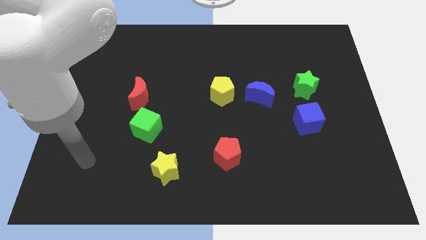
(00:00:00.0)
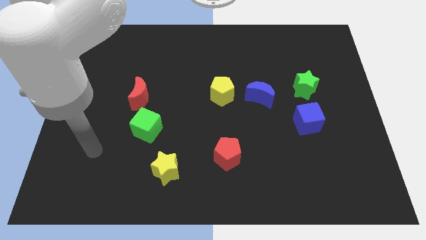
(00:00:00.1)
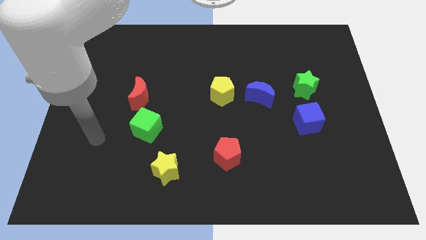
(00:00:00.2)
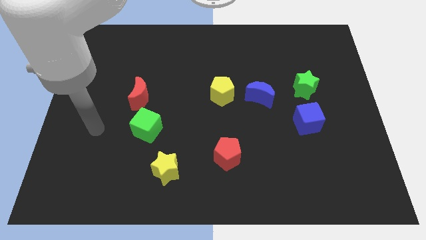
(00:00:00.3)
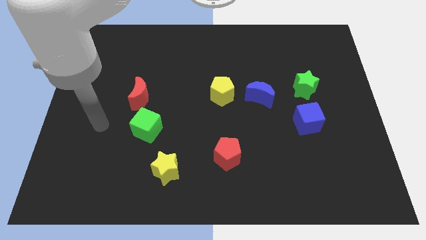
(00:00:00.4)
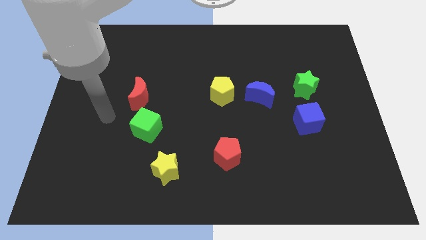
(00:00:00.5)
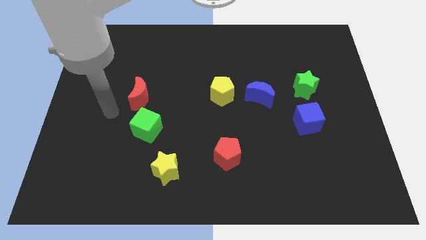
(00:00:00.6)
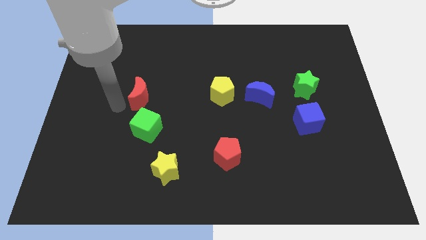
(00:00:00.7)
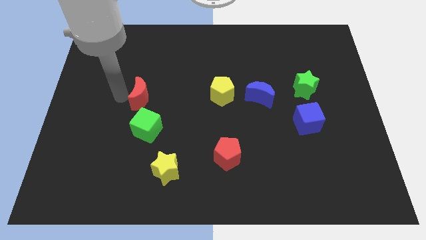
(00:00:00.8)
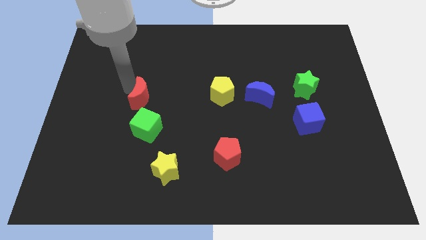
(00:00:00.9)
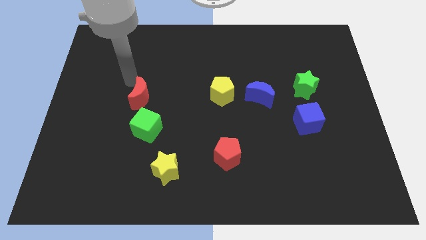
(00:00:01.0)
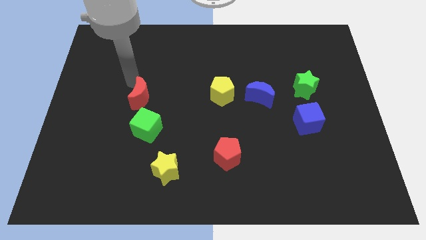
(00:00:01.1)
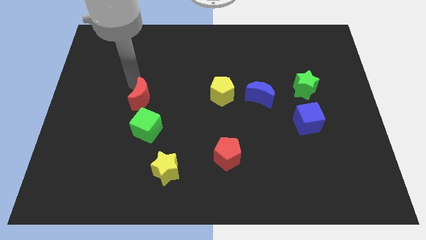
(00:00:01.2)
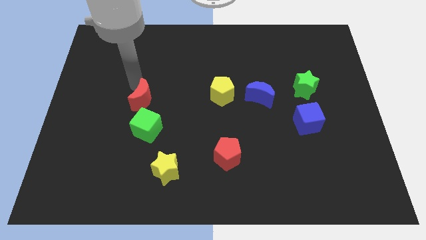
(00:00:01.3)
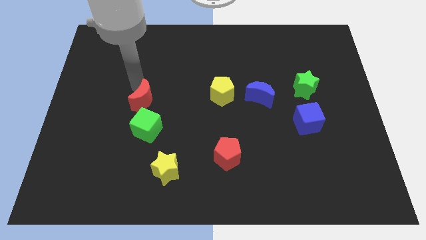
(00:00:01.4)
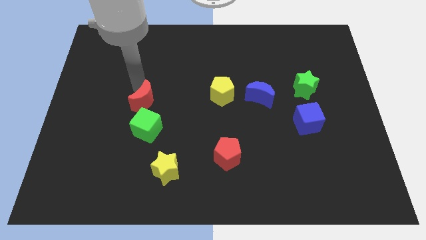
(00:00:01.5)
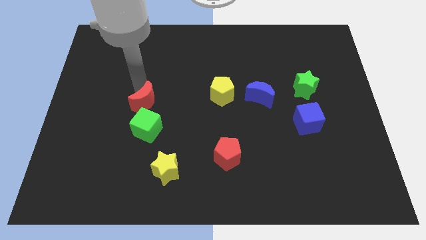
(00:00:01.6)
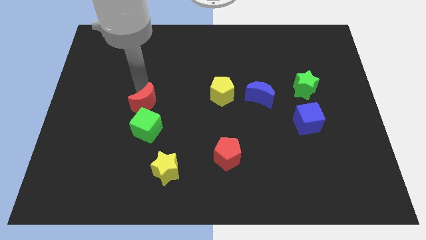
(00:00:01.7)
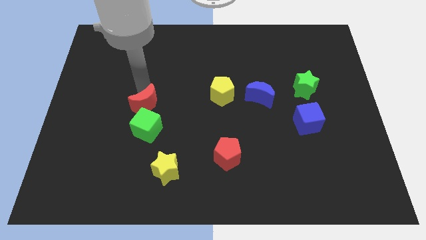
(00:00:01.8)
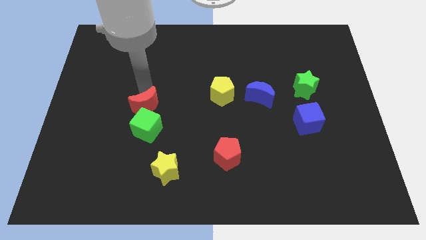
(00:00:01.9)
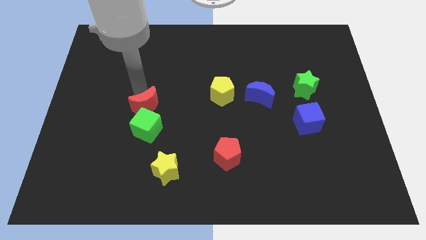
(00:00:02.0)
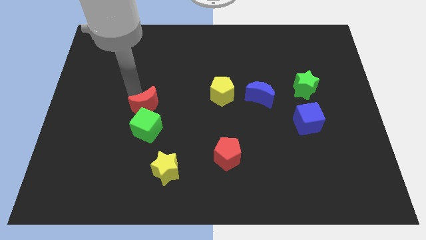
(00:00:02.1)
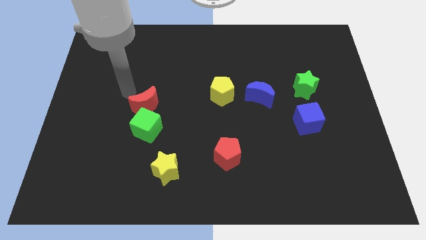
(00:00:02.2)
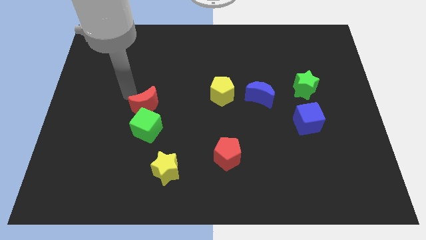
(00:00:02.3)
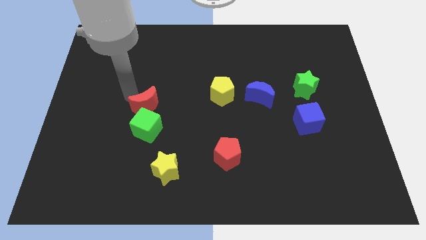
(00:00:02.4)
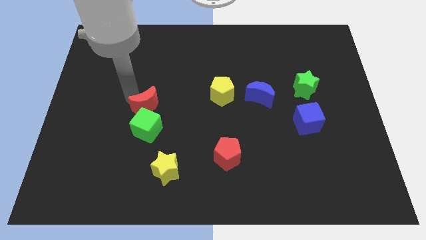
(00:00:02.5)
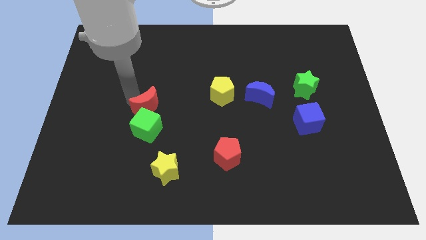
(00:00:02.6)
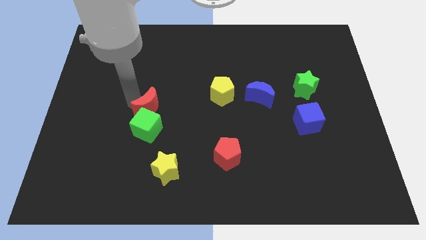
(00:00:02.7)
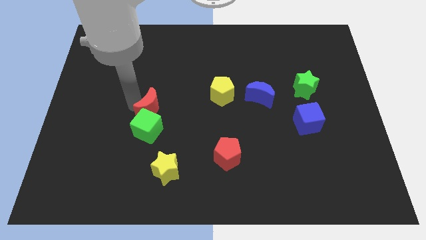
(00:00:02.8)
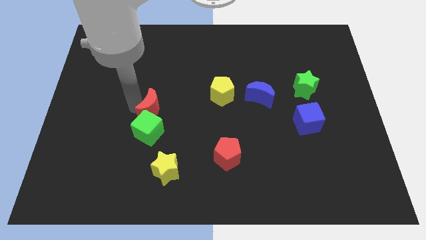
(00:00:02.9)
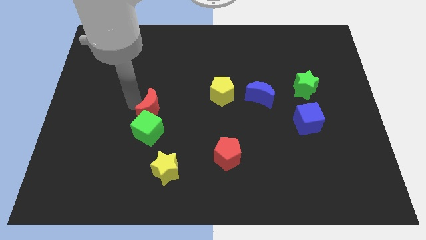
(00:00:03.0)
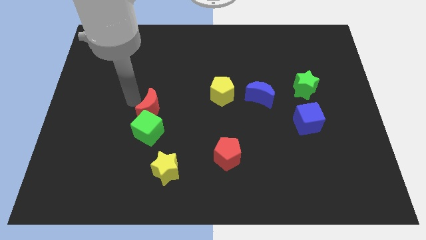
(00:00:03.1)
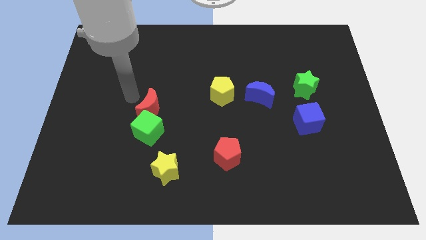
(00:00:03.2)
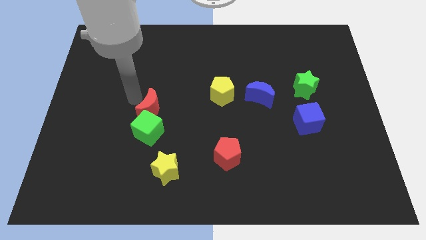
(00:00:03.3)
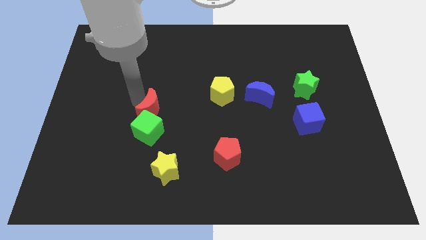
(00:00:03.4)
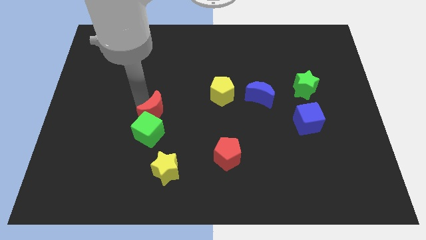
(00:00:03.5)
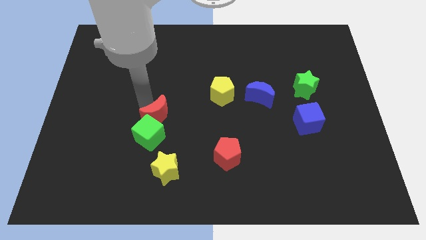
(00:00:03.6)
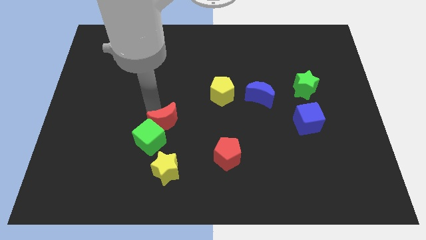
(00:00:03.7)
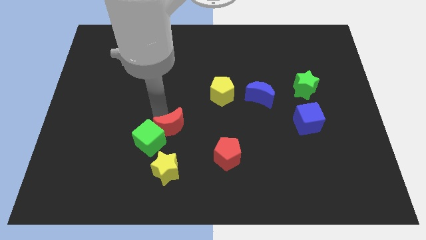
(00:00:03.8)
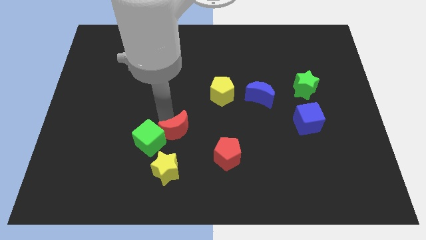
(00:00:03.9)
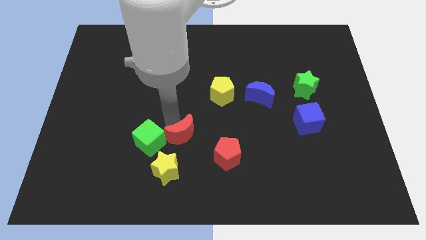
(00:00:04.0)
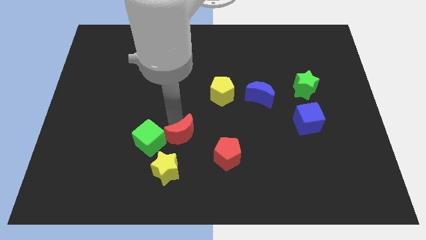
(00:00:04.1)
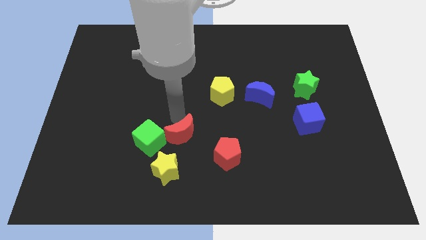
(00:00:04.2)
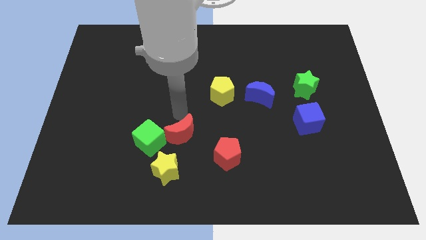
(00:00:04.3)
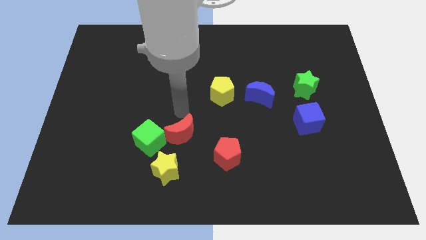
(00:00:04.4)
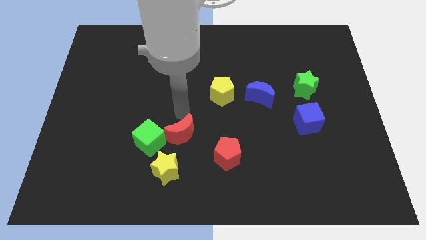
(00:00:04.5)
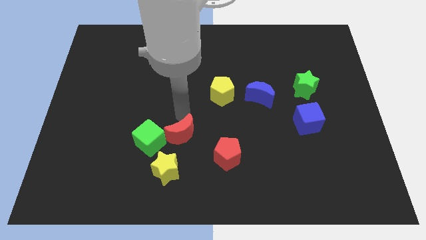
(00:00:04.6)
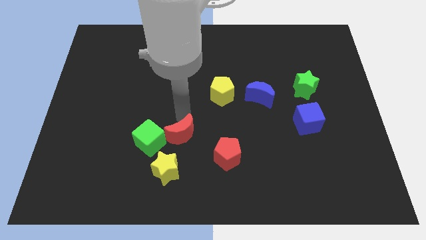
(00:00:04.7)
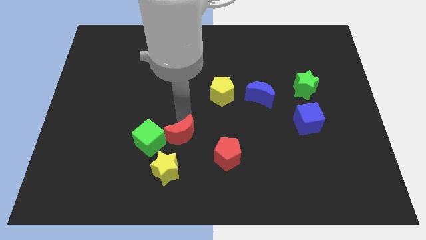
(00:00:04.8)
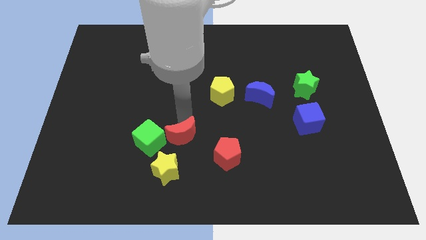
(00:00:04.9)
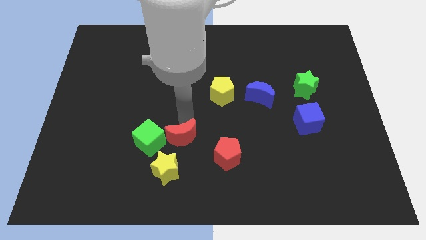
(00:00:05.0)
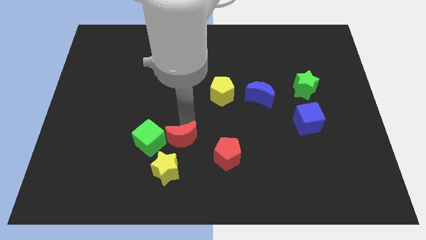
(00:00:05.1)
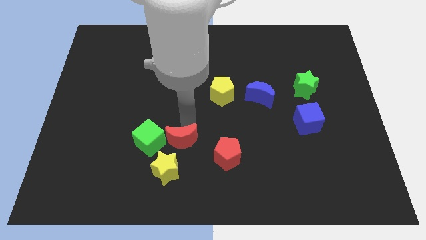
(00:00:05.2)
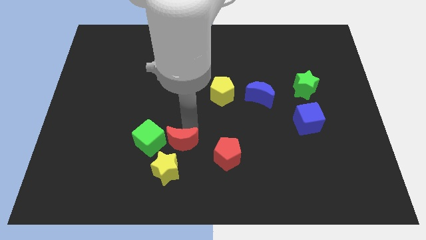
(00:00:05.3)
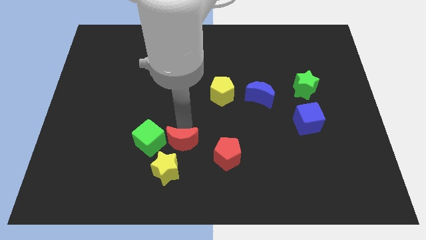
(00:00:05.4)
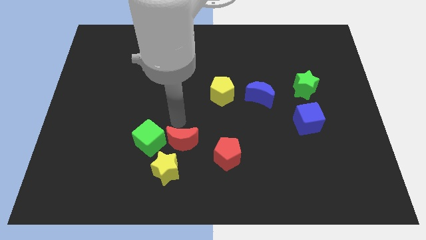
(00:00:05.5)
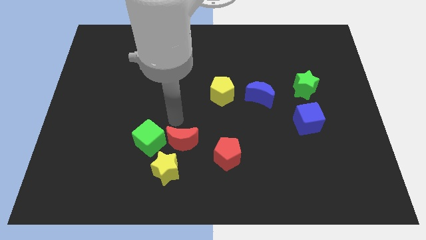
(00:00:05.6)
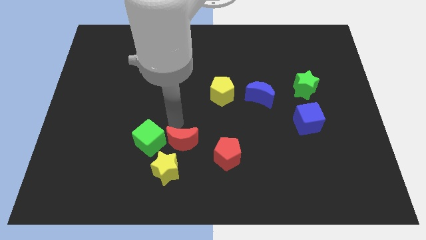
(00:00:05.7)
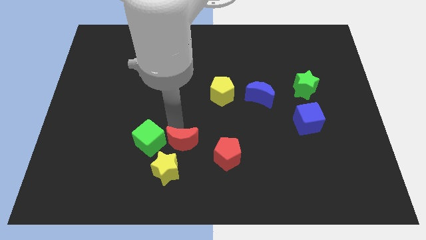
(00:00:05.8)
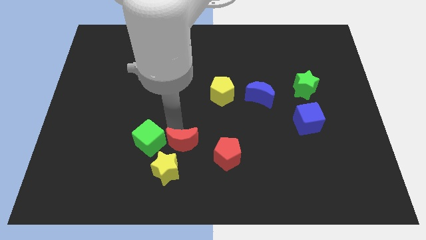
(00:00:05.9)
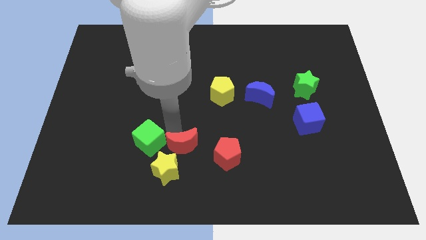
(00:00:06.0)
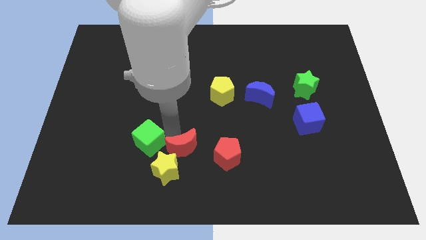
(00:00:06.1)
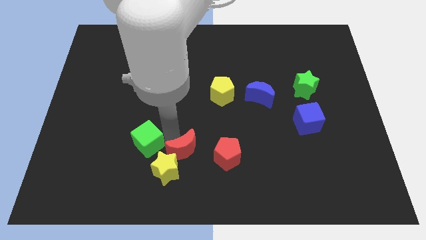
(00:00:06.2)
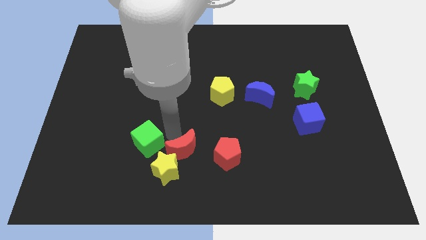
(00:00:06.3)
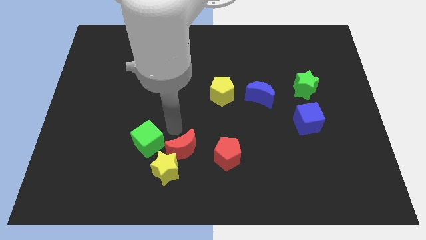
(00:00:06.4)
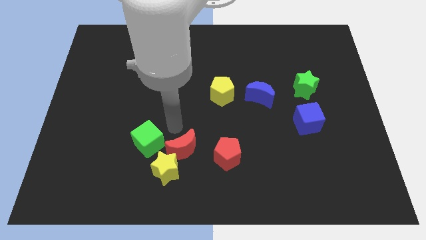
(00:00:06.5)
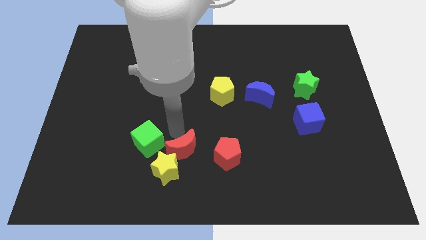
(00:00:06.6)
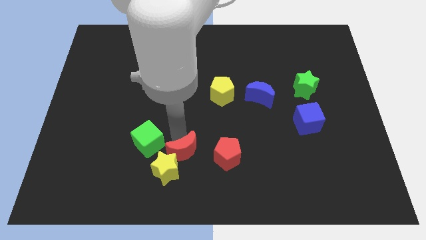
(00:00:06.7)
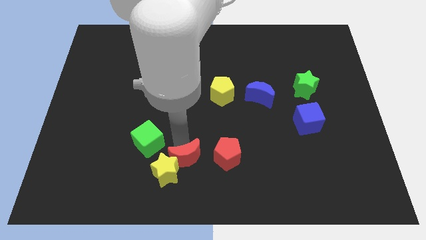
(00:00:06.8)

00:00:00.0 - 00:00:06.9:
slide the red moon to the bottom side

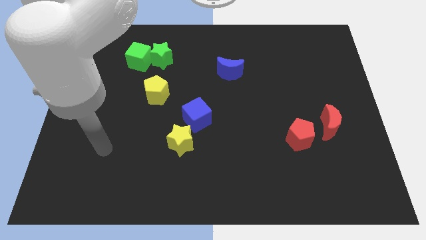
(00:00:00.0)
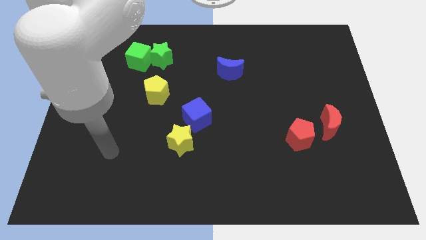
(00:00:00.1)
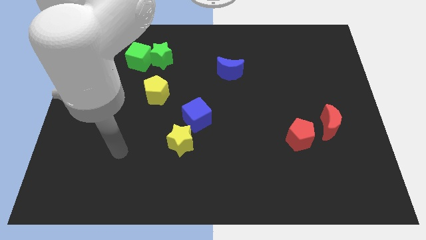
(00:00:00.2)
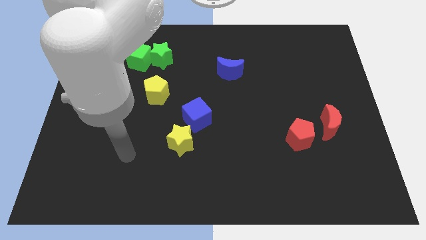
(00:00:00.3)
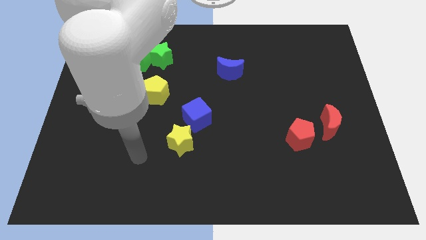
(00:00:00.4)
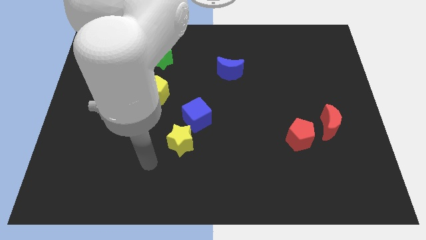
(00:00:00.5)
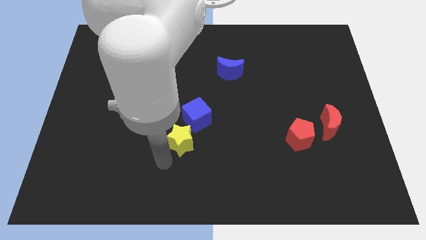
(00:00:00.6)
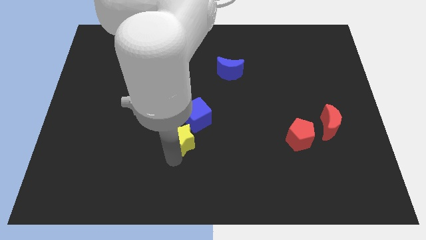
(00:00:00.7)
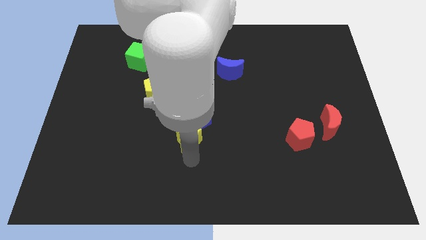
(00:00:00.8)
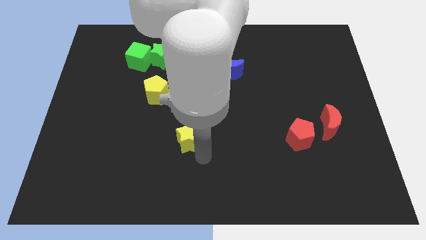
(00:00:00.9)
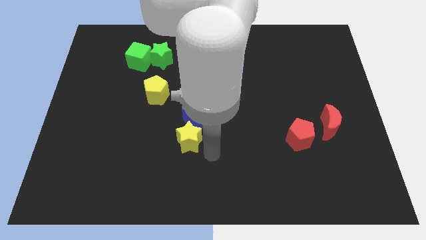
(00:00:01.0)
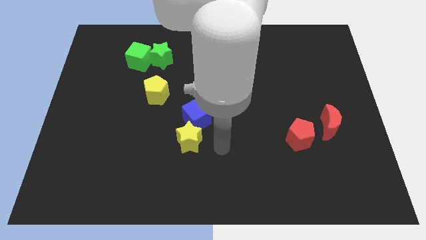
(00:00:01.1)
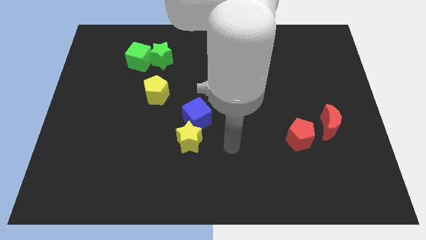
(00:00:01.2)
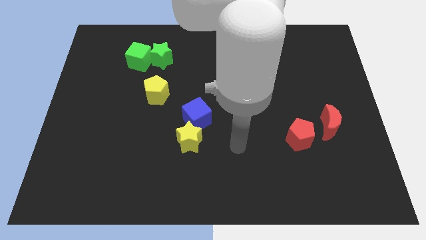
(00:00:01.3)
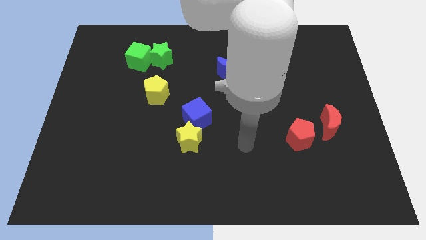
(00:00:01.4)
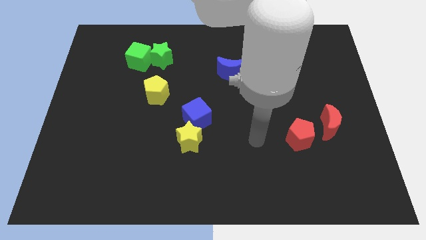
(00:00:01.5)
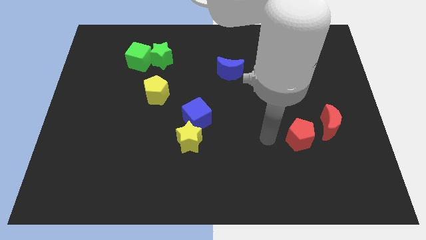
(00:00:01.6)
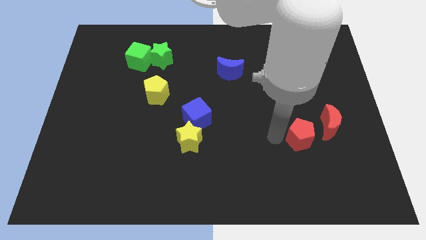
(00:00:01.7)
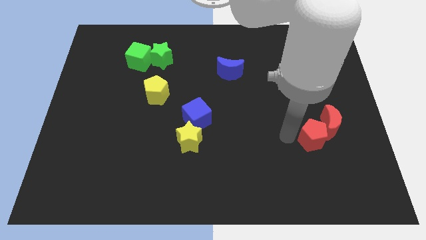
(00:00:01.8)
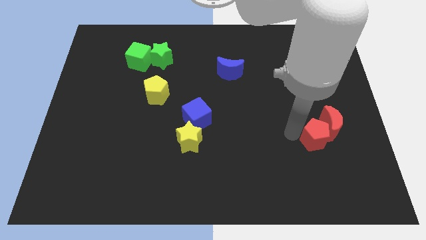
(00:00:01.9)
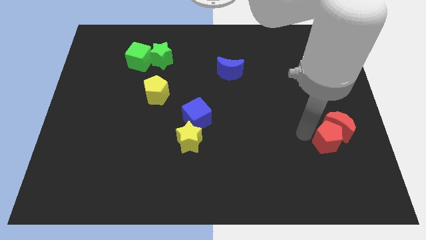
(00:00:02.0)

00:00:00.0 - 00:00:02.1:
move the red moon to the center right
